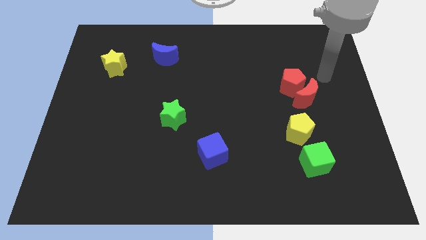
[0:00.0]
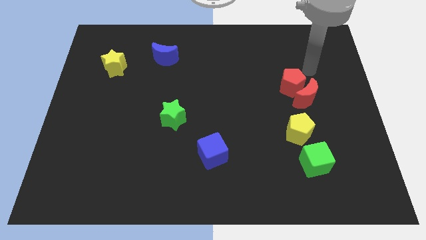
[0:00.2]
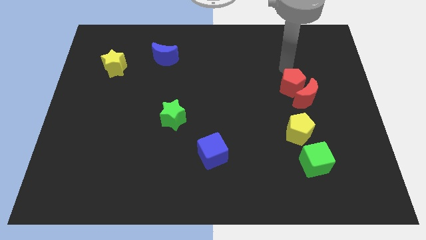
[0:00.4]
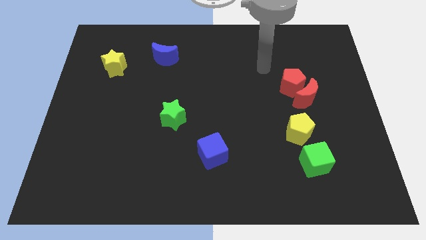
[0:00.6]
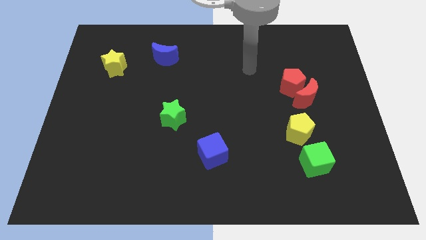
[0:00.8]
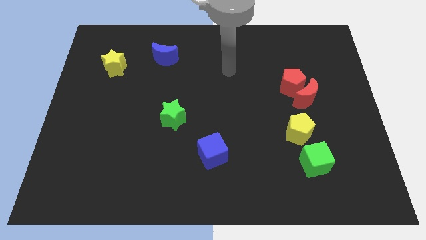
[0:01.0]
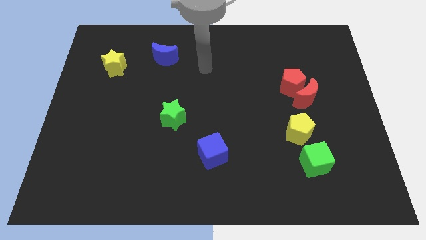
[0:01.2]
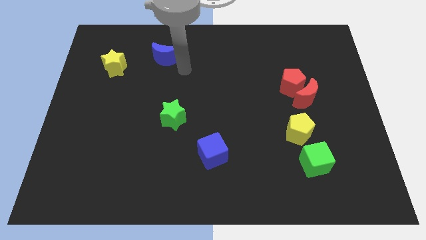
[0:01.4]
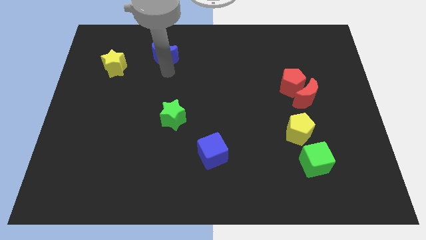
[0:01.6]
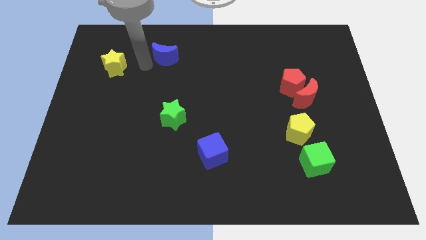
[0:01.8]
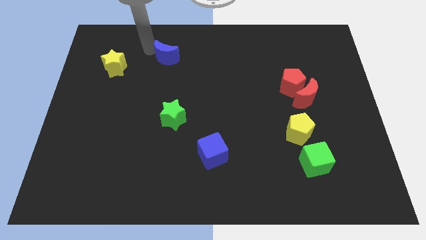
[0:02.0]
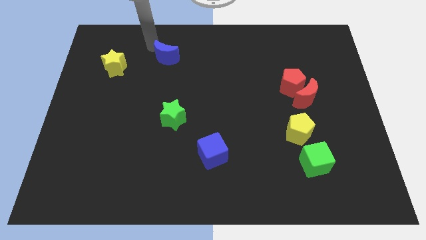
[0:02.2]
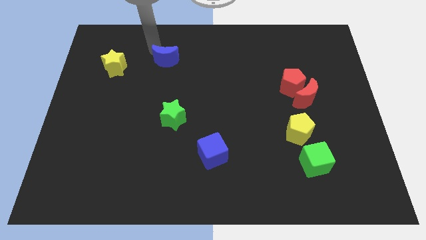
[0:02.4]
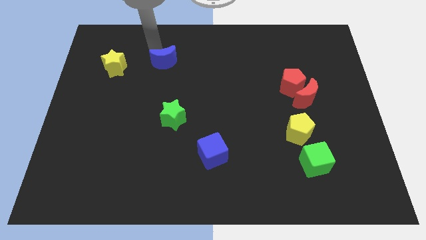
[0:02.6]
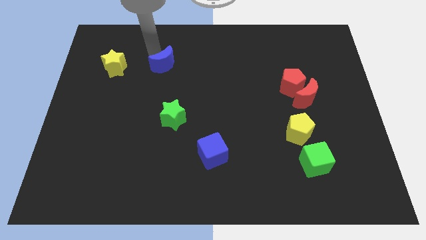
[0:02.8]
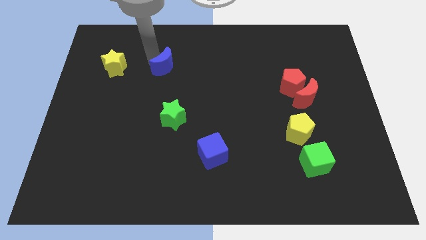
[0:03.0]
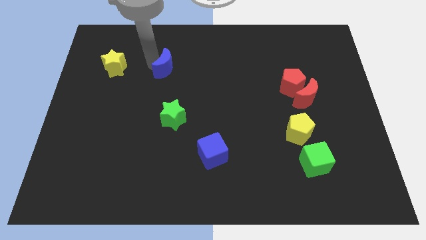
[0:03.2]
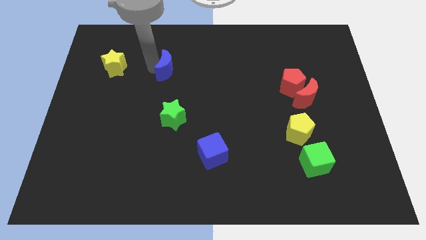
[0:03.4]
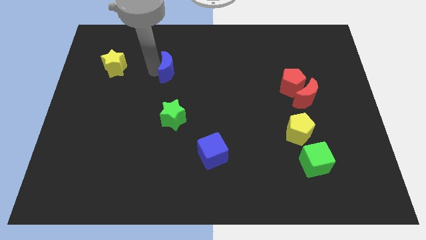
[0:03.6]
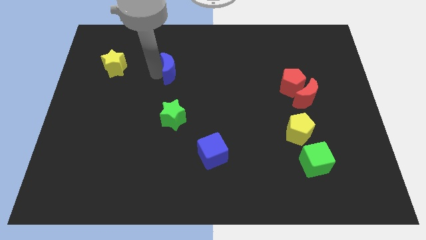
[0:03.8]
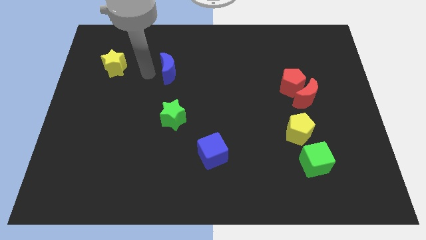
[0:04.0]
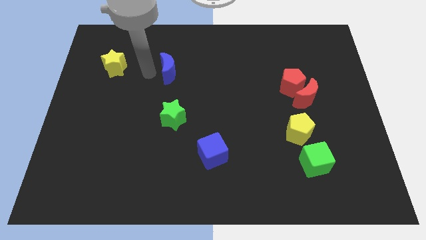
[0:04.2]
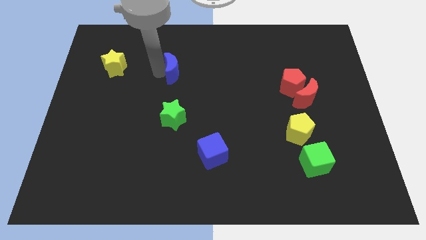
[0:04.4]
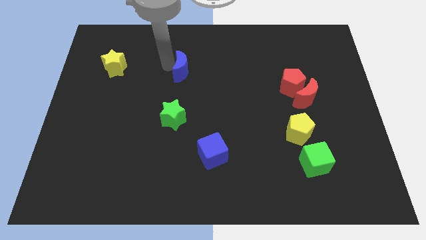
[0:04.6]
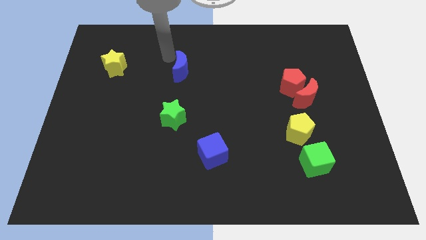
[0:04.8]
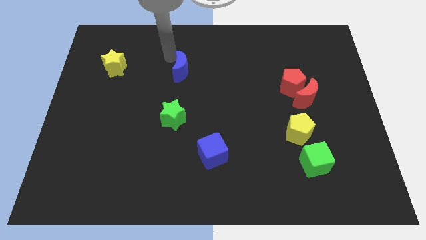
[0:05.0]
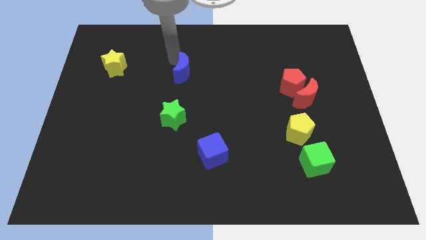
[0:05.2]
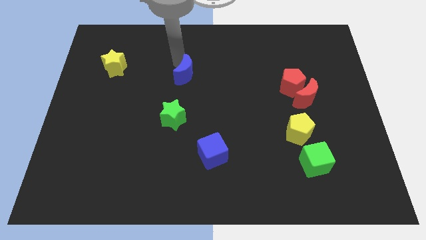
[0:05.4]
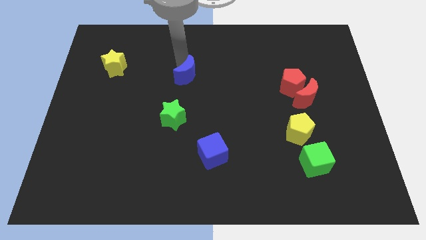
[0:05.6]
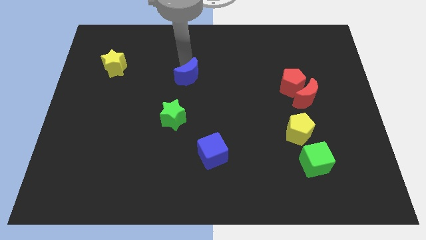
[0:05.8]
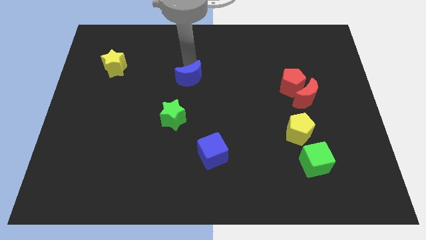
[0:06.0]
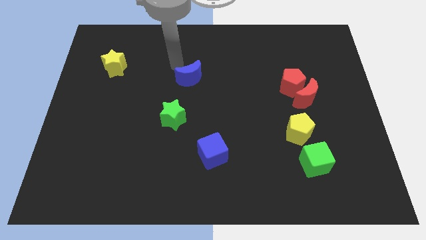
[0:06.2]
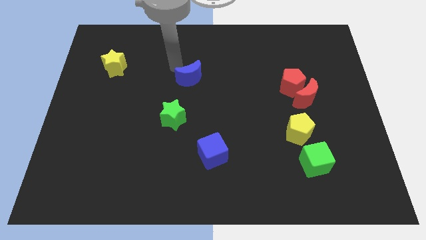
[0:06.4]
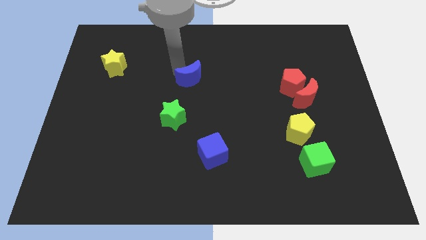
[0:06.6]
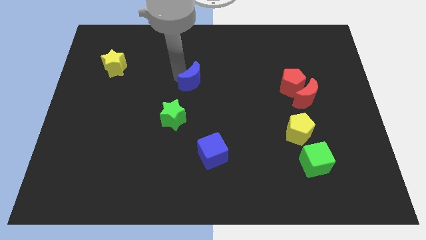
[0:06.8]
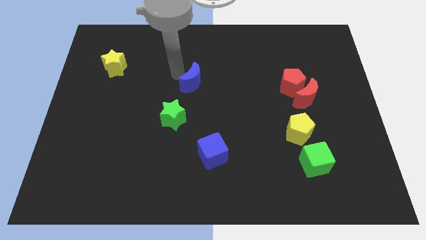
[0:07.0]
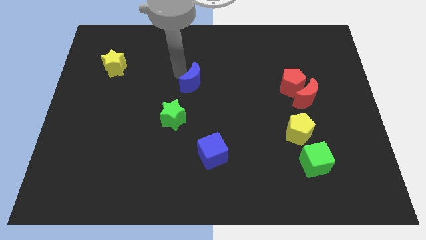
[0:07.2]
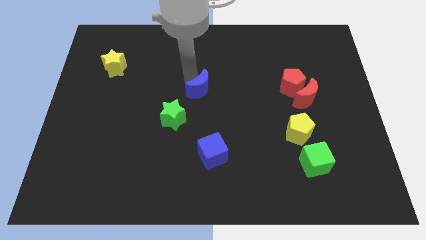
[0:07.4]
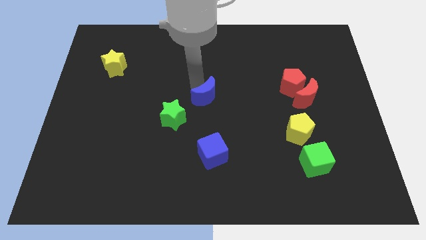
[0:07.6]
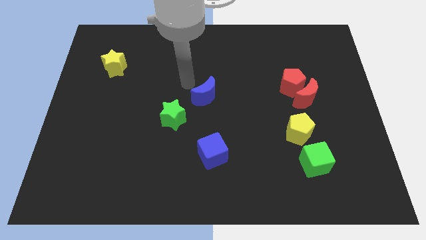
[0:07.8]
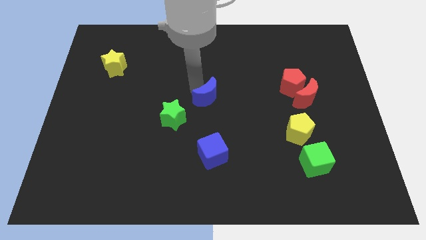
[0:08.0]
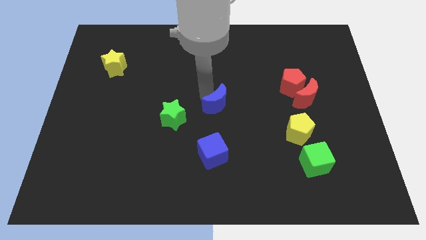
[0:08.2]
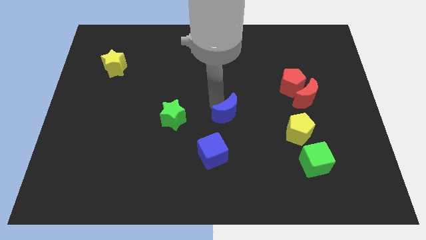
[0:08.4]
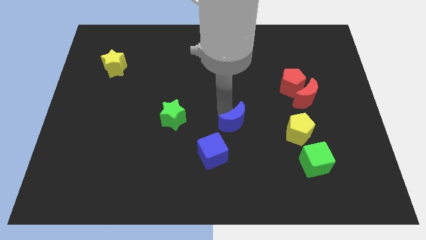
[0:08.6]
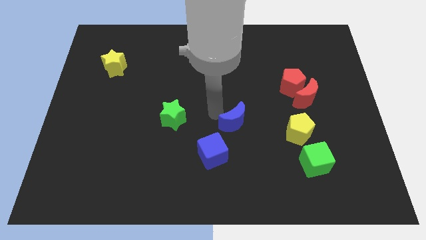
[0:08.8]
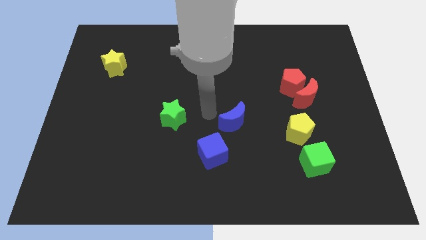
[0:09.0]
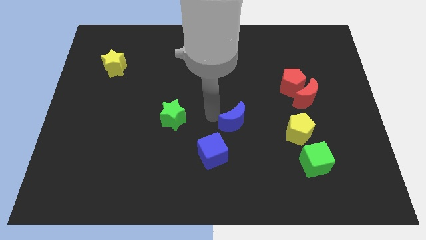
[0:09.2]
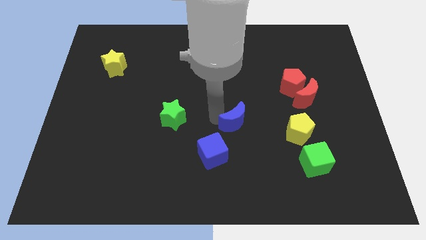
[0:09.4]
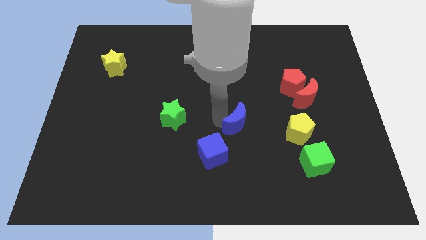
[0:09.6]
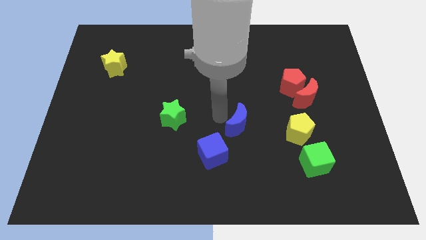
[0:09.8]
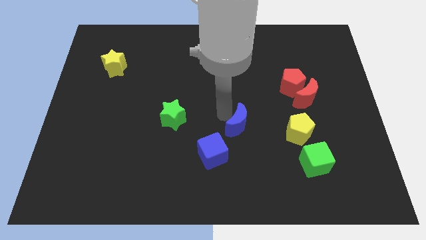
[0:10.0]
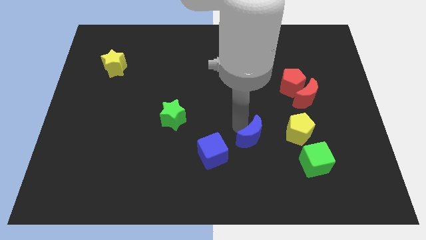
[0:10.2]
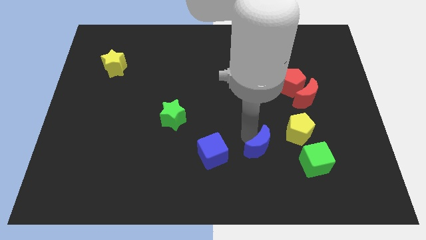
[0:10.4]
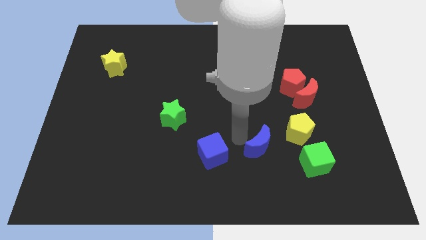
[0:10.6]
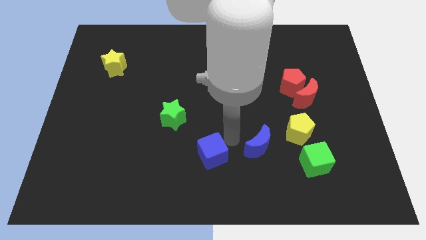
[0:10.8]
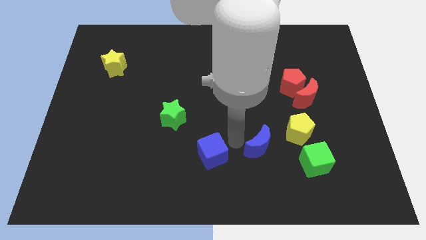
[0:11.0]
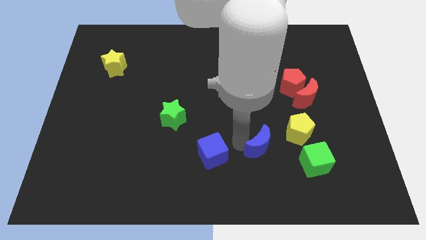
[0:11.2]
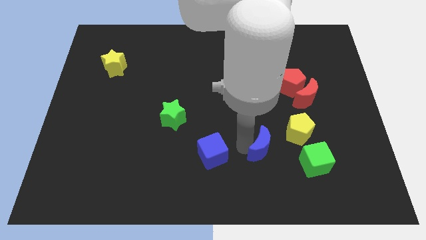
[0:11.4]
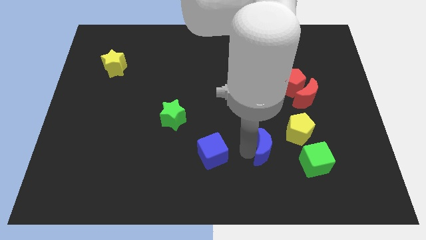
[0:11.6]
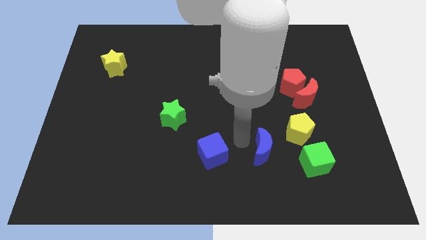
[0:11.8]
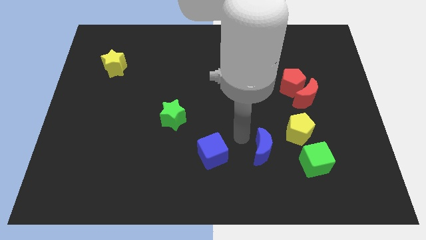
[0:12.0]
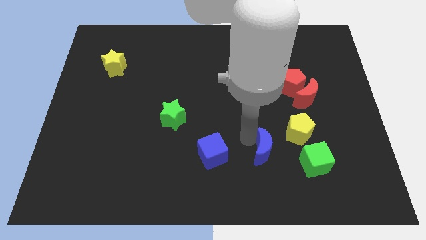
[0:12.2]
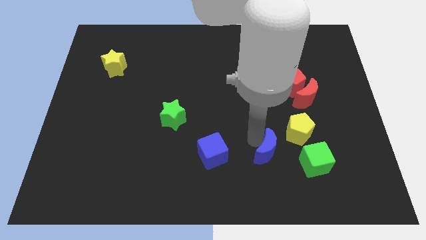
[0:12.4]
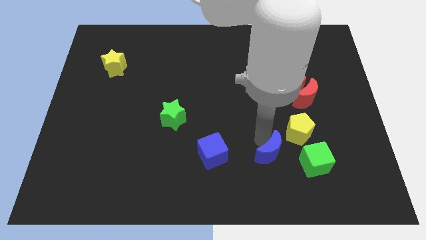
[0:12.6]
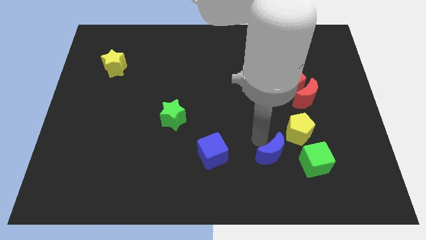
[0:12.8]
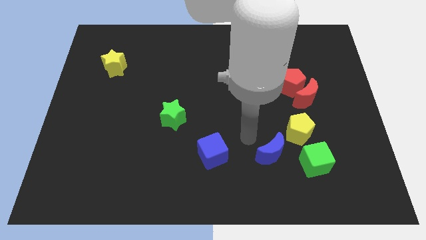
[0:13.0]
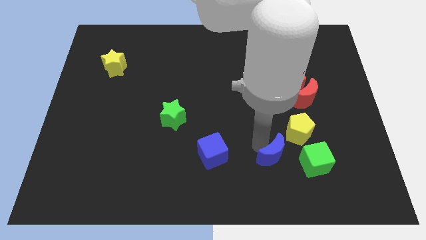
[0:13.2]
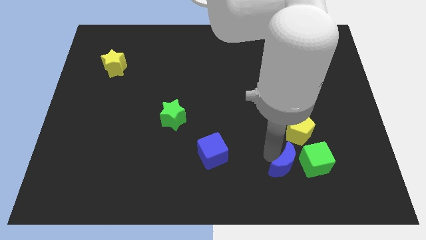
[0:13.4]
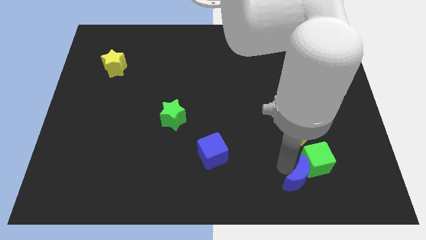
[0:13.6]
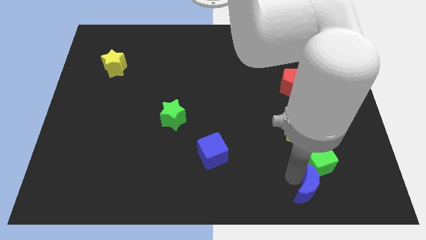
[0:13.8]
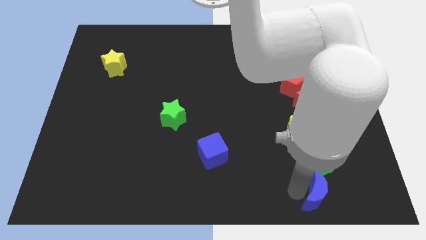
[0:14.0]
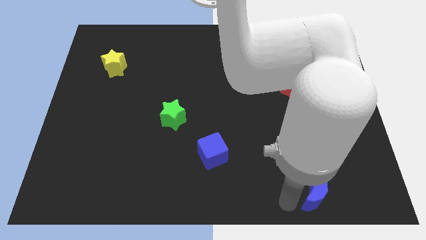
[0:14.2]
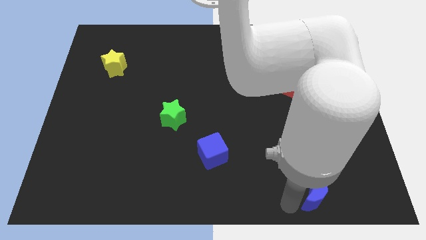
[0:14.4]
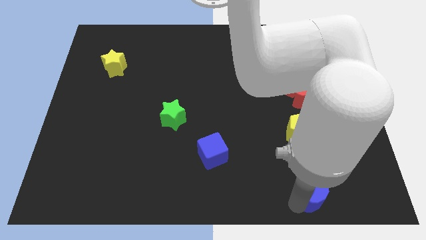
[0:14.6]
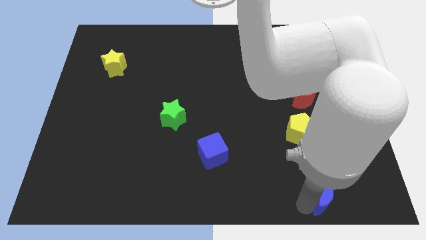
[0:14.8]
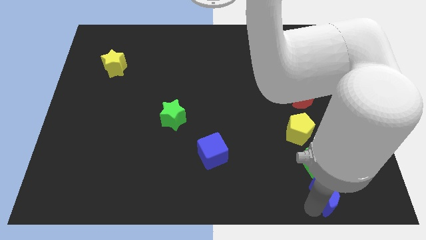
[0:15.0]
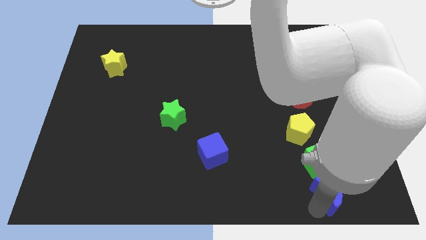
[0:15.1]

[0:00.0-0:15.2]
slide the blue moon to the bottom right of the green cube
